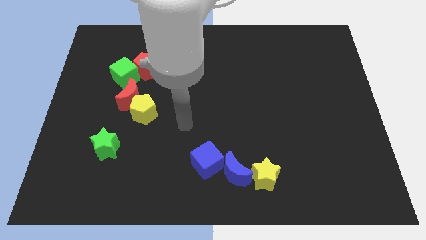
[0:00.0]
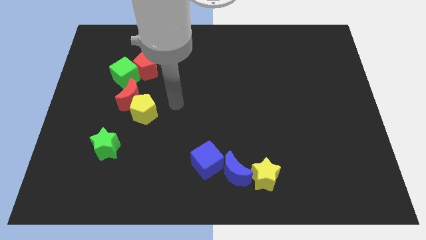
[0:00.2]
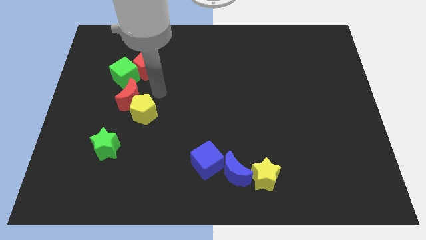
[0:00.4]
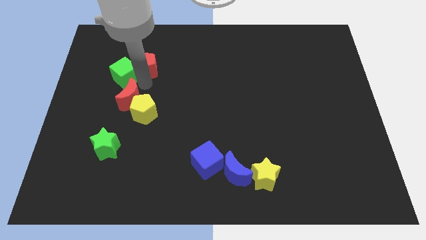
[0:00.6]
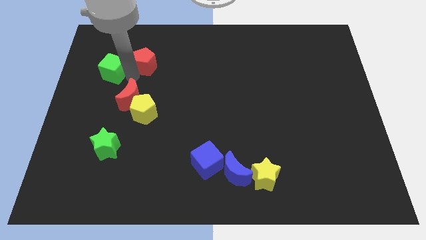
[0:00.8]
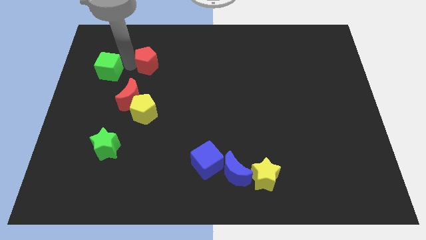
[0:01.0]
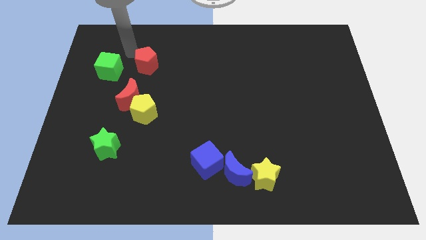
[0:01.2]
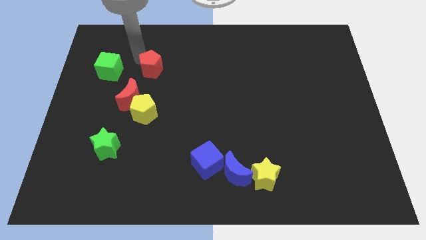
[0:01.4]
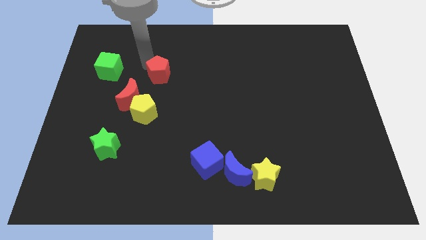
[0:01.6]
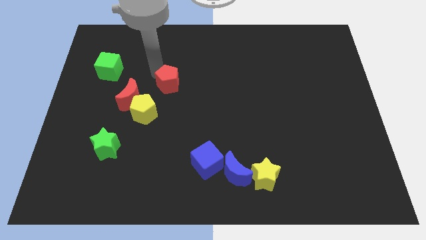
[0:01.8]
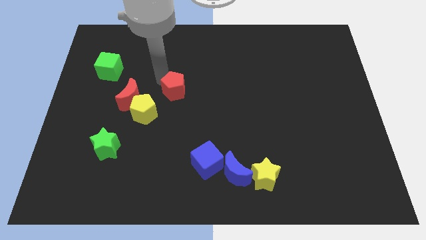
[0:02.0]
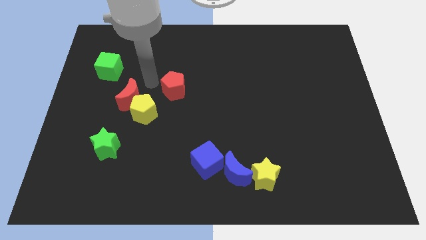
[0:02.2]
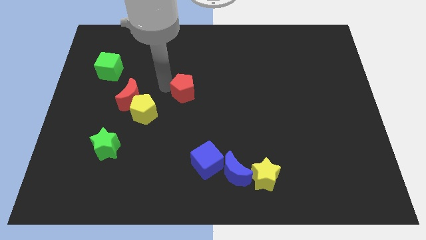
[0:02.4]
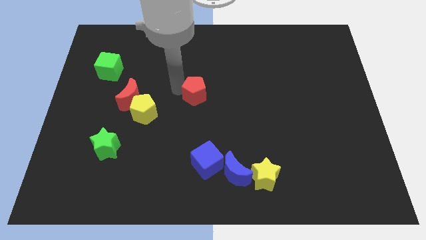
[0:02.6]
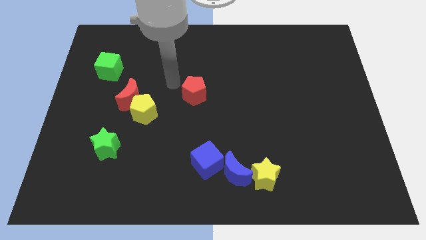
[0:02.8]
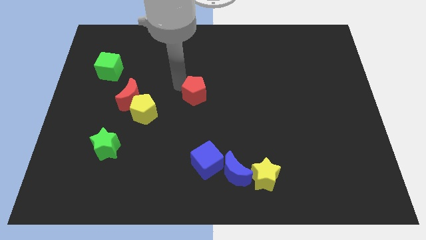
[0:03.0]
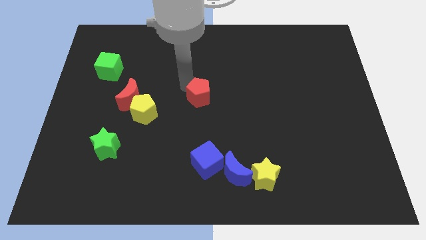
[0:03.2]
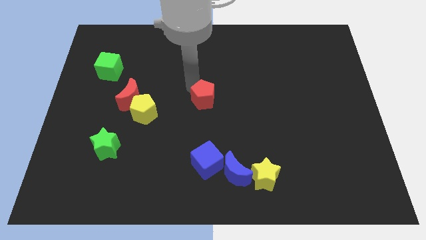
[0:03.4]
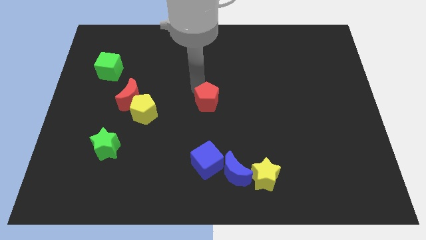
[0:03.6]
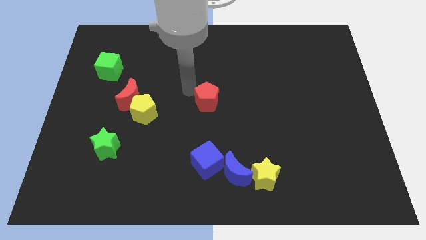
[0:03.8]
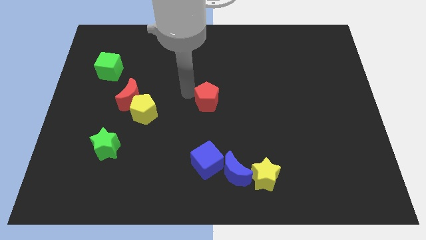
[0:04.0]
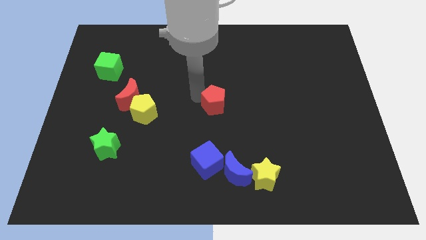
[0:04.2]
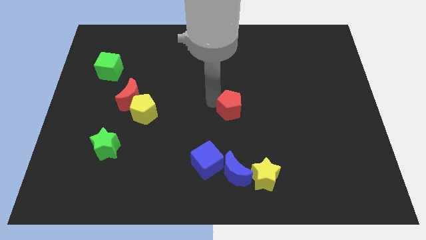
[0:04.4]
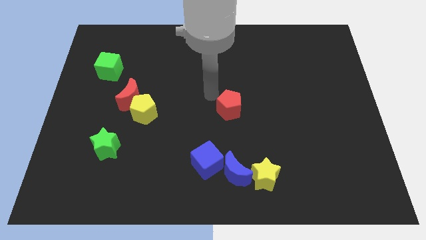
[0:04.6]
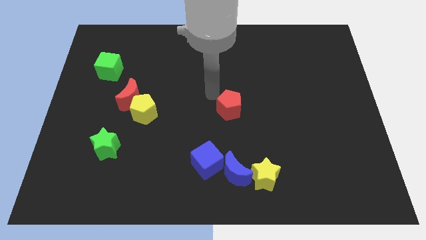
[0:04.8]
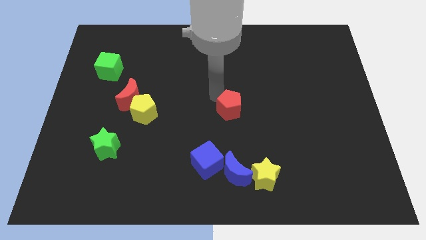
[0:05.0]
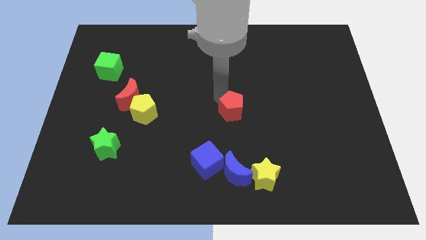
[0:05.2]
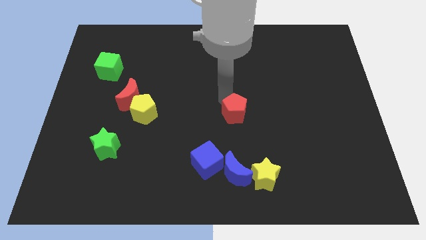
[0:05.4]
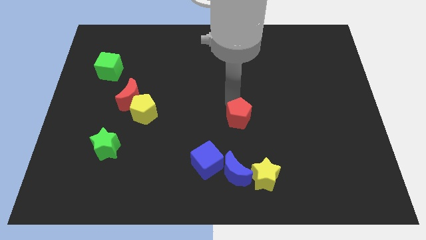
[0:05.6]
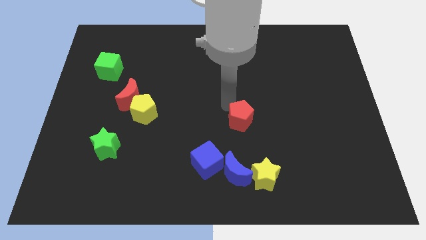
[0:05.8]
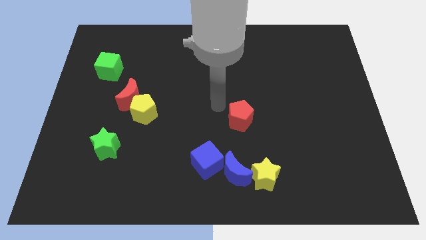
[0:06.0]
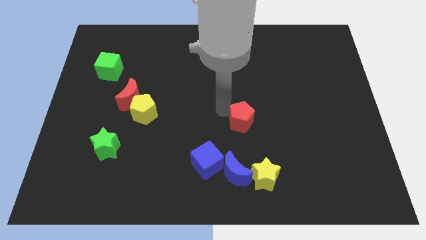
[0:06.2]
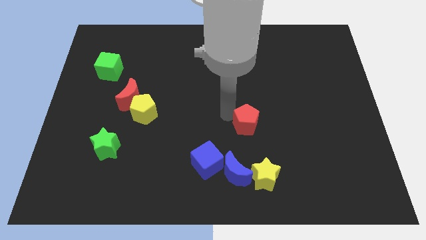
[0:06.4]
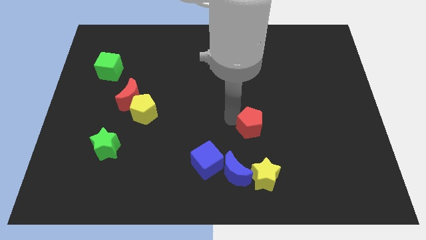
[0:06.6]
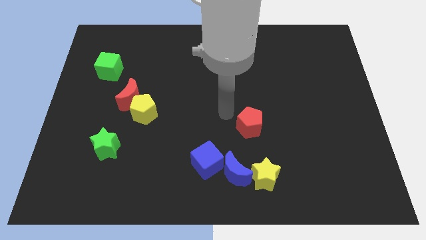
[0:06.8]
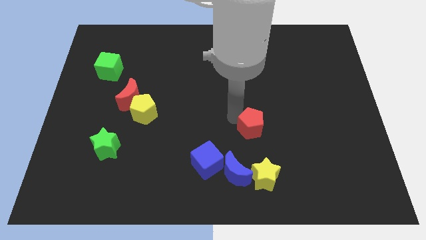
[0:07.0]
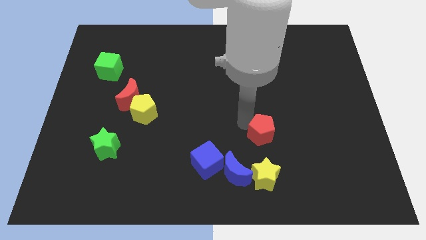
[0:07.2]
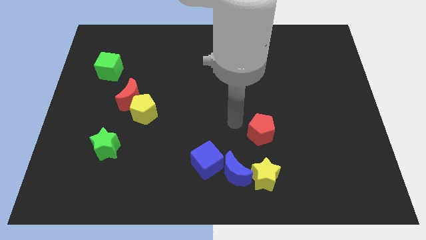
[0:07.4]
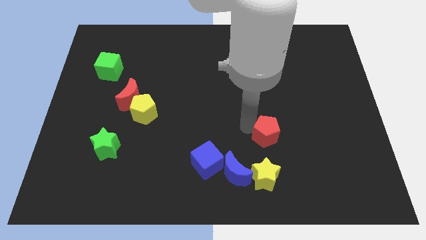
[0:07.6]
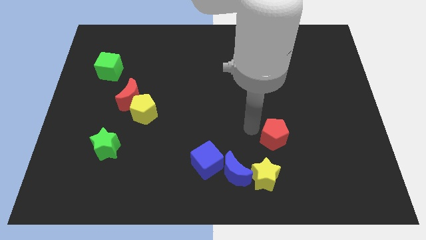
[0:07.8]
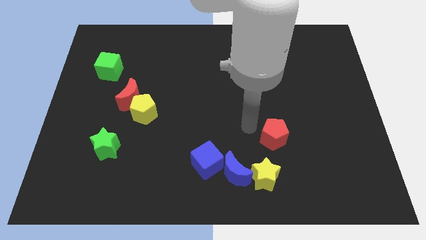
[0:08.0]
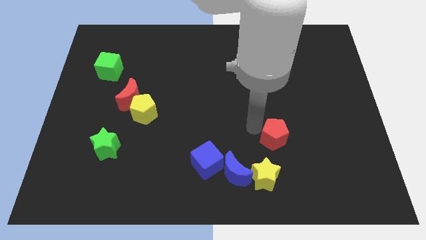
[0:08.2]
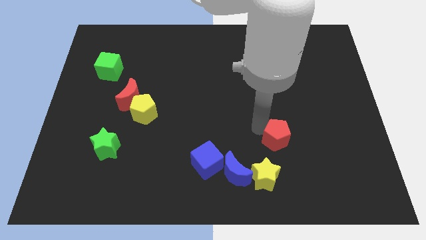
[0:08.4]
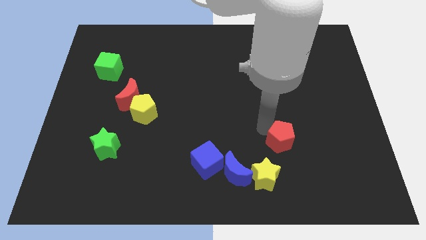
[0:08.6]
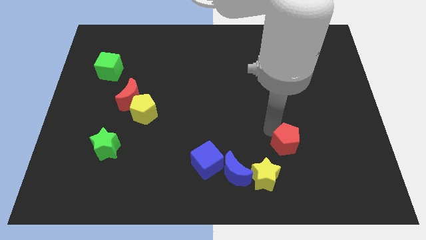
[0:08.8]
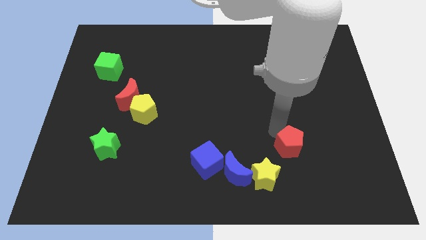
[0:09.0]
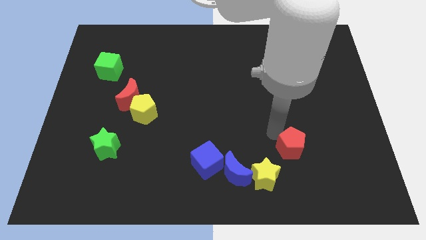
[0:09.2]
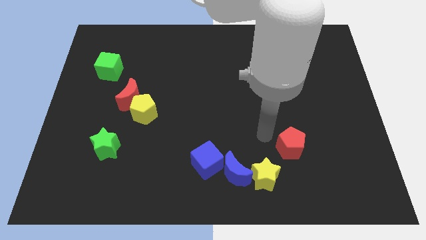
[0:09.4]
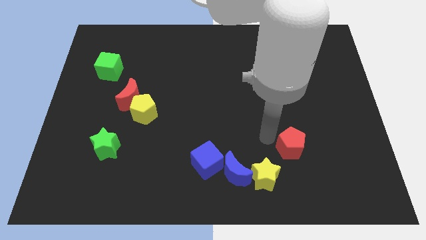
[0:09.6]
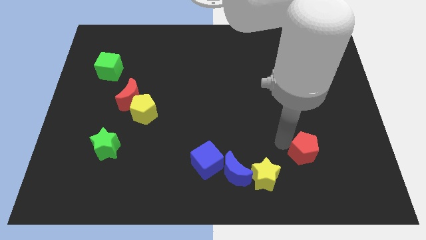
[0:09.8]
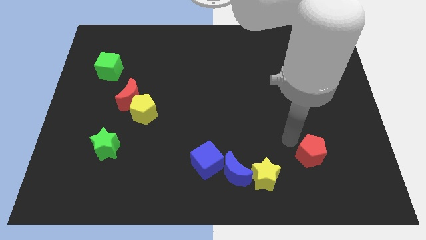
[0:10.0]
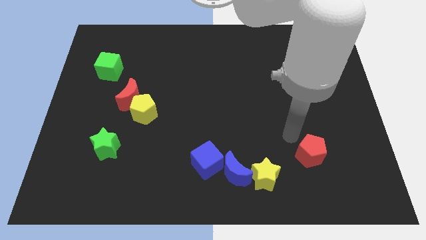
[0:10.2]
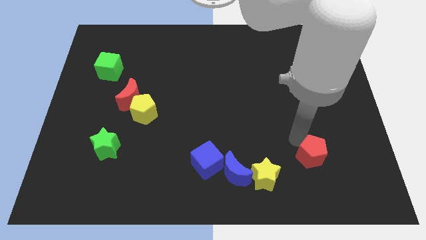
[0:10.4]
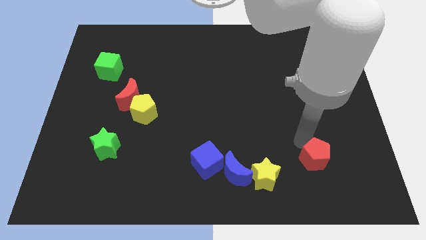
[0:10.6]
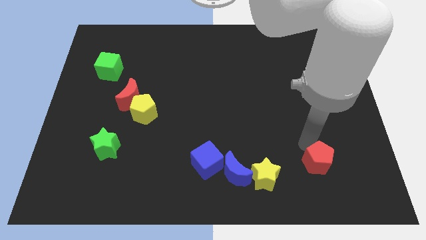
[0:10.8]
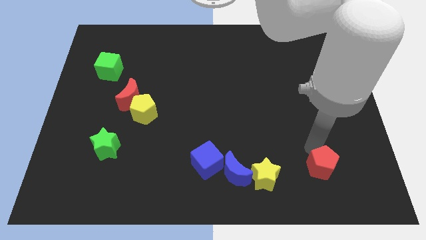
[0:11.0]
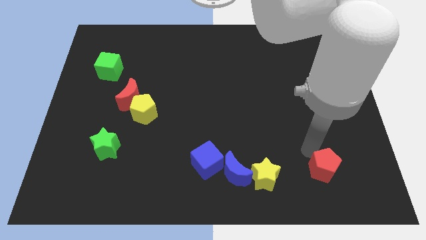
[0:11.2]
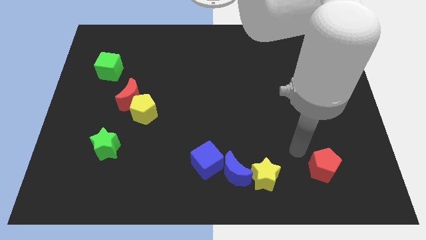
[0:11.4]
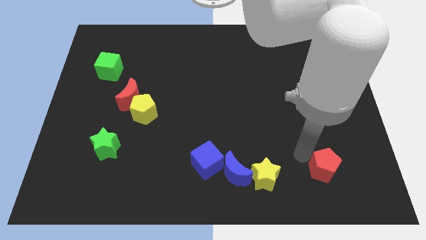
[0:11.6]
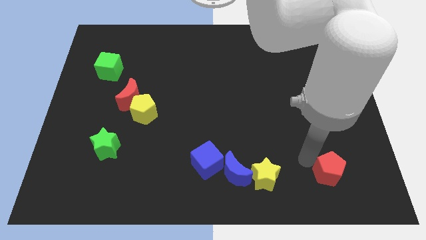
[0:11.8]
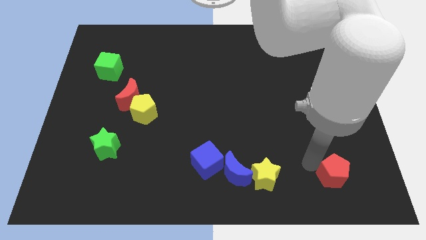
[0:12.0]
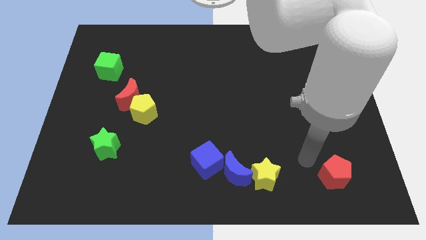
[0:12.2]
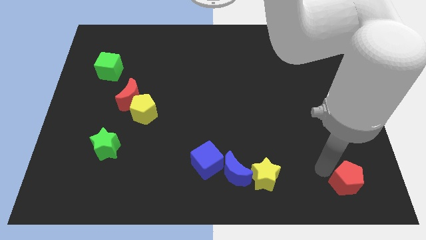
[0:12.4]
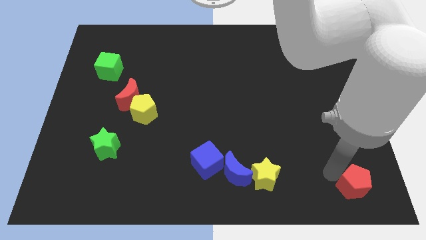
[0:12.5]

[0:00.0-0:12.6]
push the red pentagon to the lower right corner

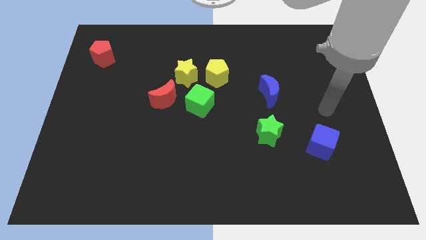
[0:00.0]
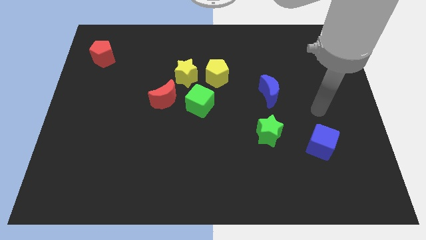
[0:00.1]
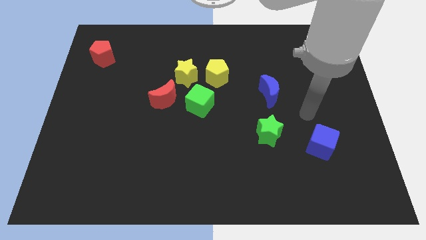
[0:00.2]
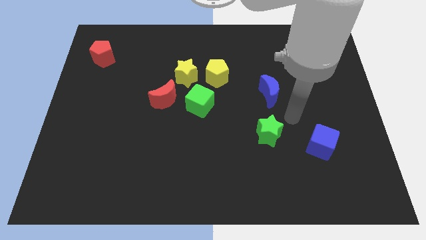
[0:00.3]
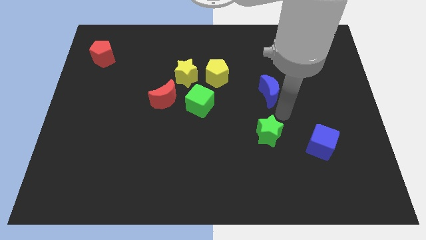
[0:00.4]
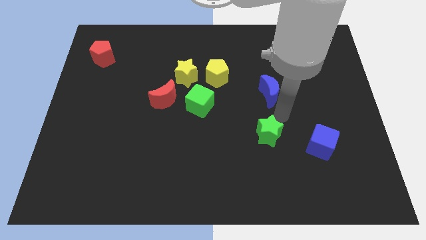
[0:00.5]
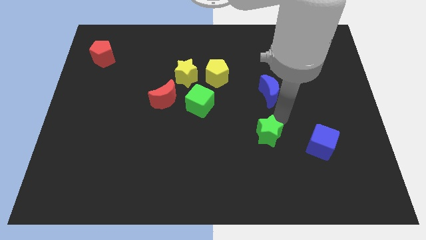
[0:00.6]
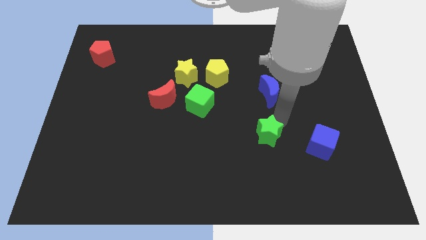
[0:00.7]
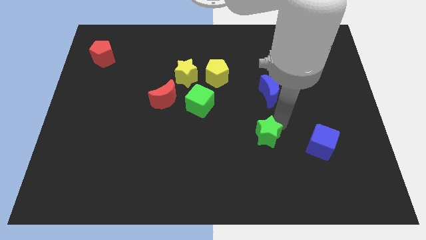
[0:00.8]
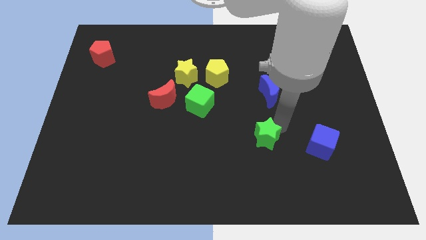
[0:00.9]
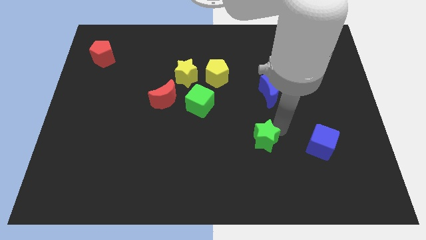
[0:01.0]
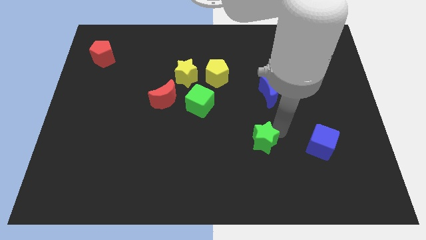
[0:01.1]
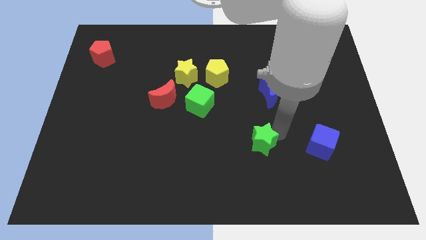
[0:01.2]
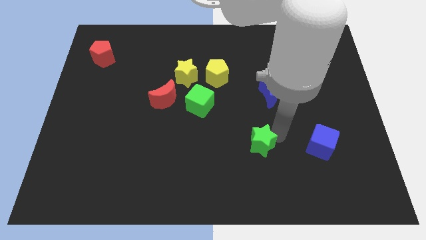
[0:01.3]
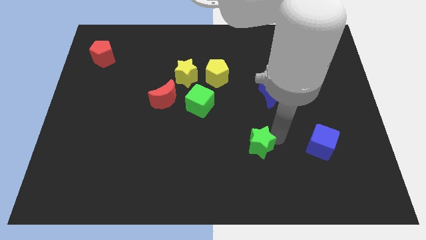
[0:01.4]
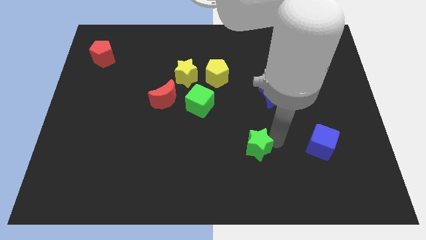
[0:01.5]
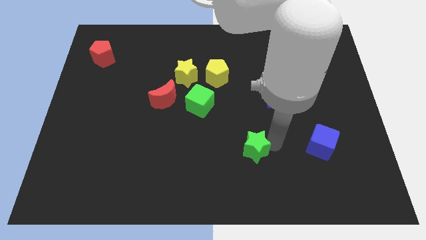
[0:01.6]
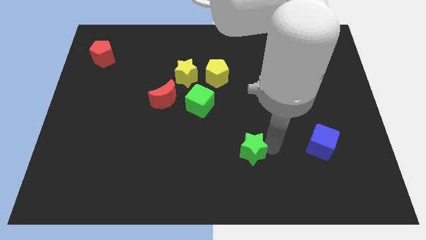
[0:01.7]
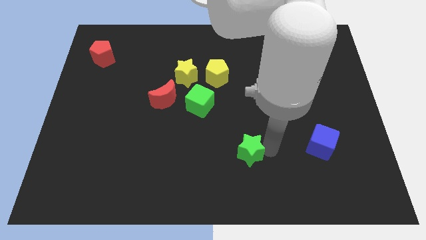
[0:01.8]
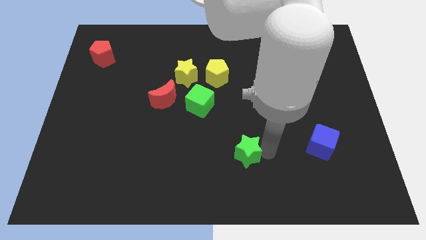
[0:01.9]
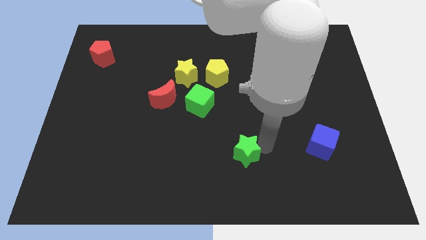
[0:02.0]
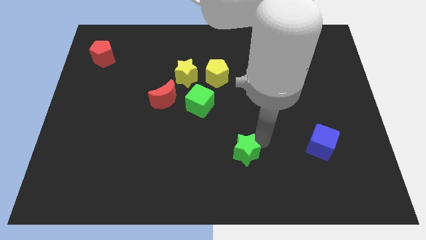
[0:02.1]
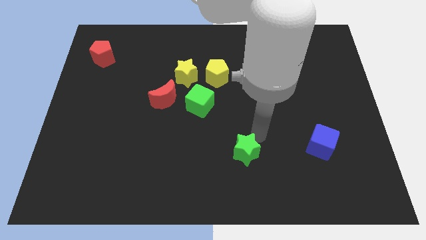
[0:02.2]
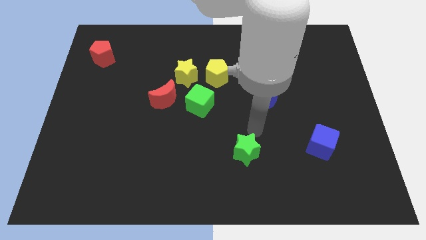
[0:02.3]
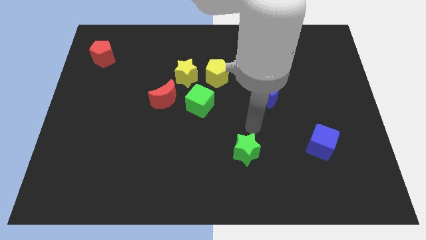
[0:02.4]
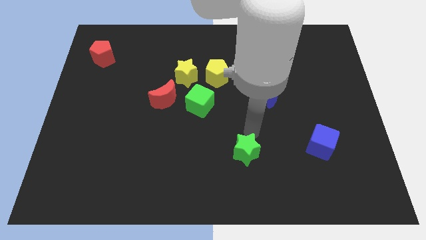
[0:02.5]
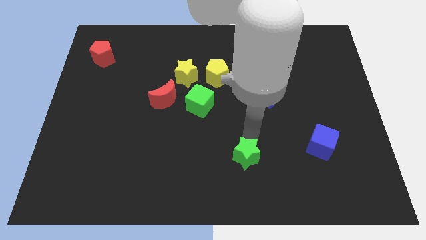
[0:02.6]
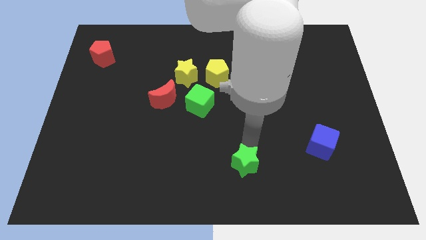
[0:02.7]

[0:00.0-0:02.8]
move the green star to the bottom side
